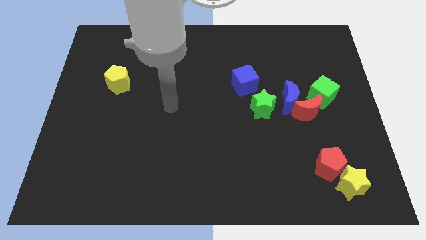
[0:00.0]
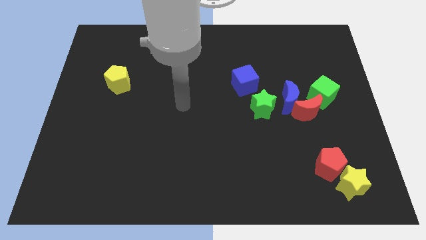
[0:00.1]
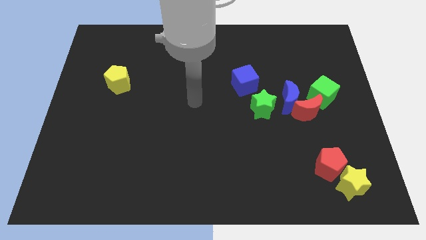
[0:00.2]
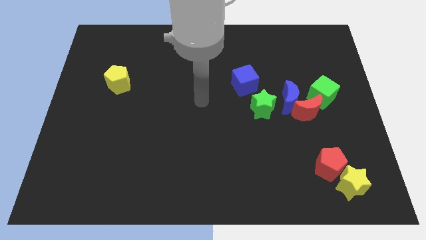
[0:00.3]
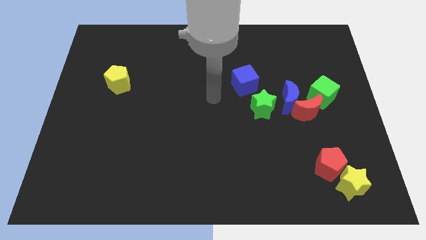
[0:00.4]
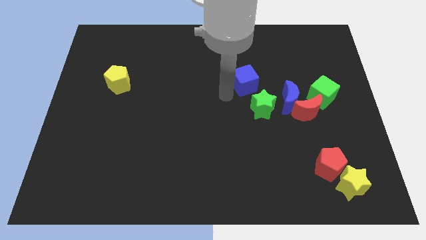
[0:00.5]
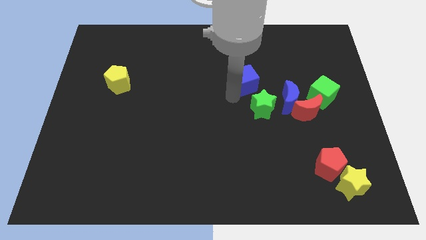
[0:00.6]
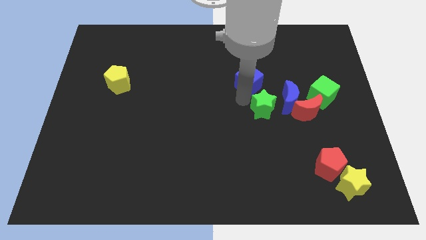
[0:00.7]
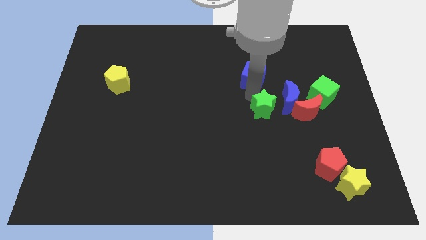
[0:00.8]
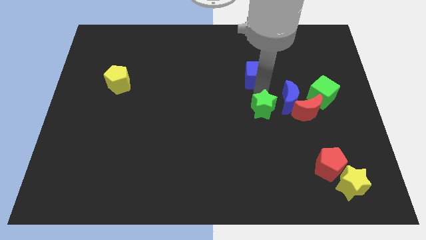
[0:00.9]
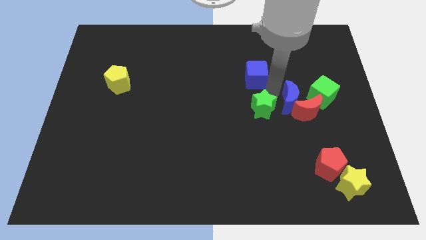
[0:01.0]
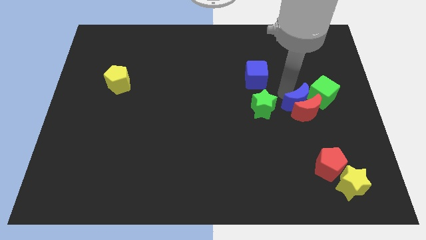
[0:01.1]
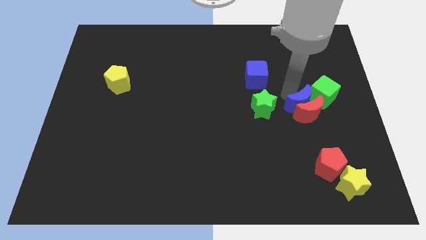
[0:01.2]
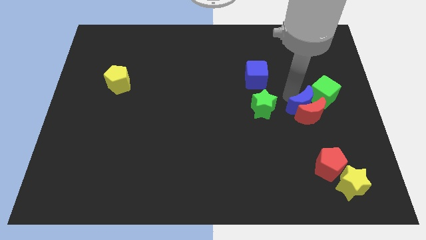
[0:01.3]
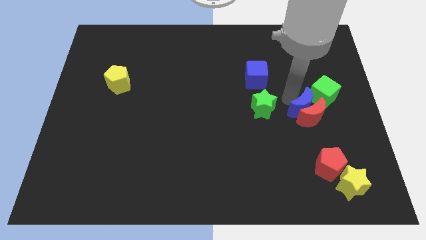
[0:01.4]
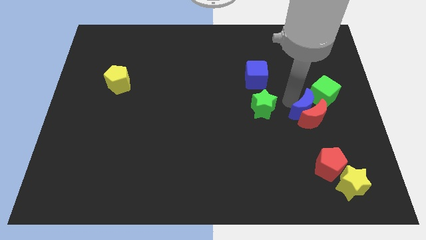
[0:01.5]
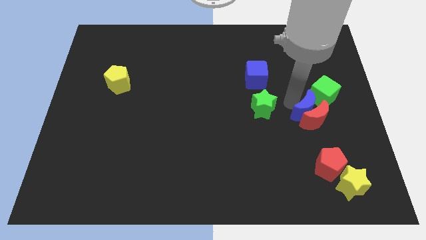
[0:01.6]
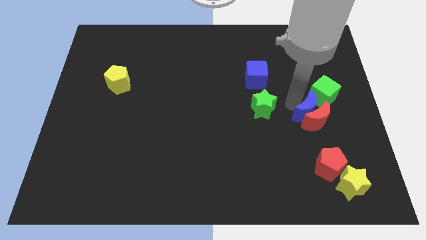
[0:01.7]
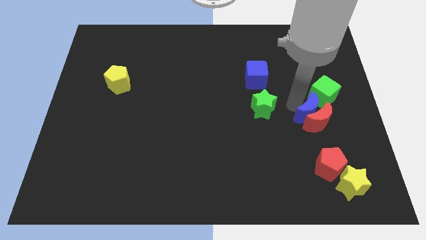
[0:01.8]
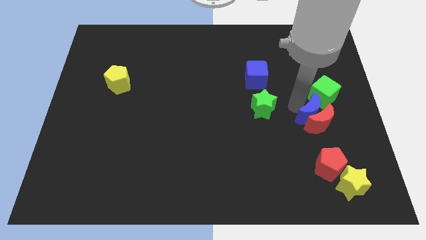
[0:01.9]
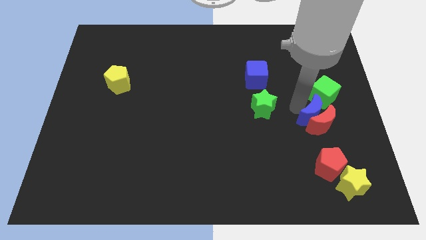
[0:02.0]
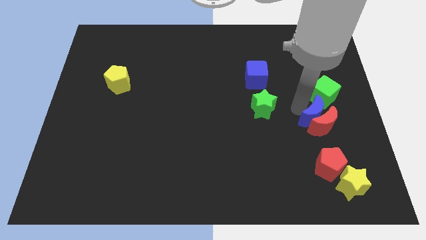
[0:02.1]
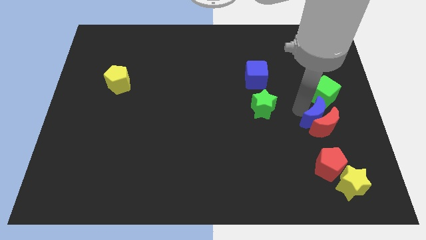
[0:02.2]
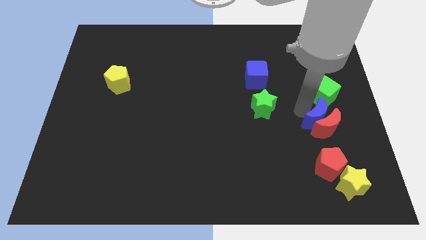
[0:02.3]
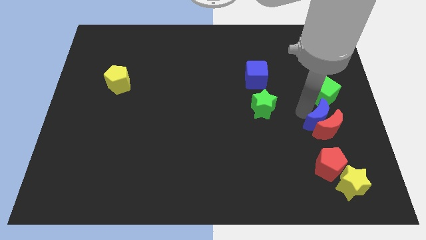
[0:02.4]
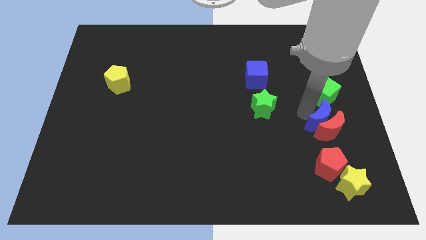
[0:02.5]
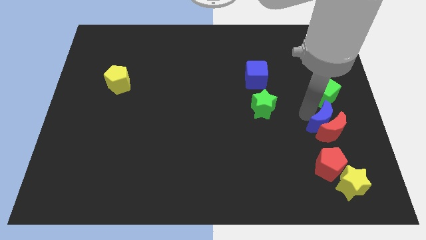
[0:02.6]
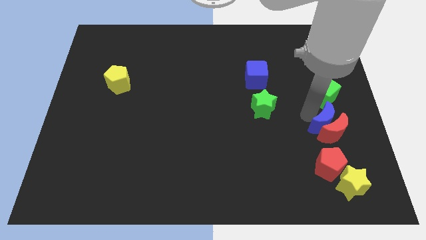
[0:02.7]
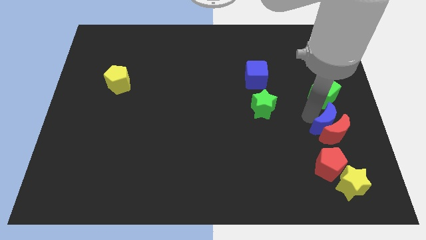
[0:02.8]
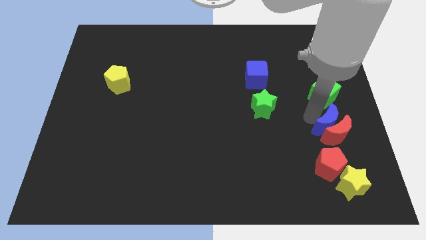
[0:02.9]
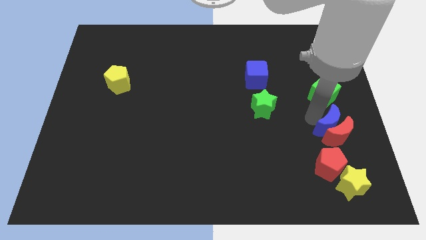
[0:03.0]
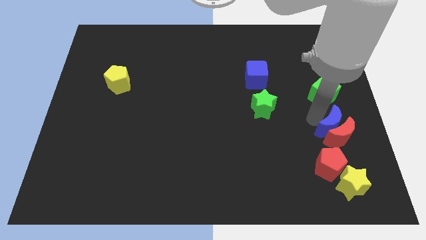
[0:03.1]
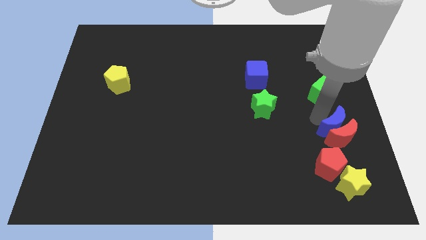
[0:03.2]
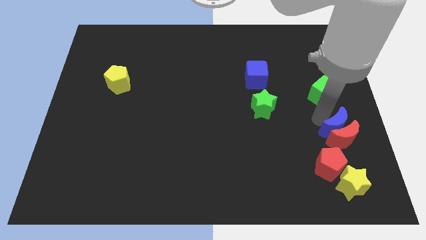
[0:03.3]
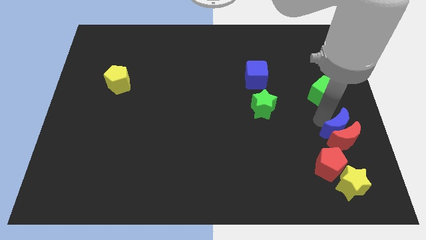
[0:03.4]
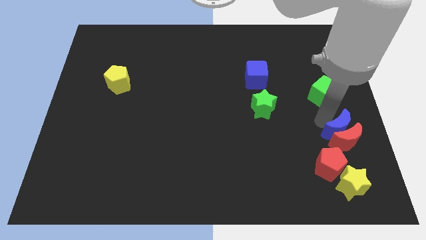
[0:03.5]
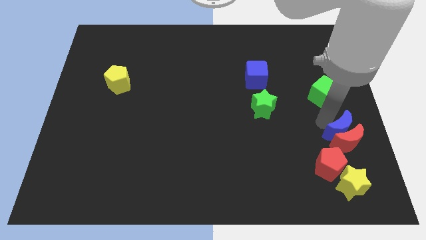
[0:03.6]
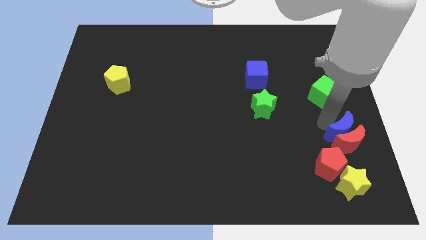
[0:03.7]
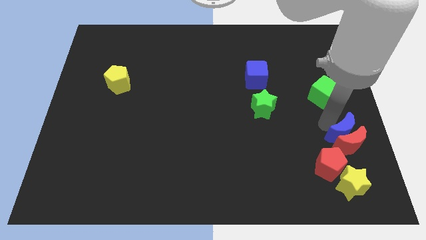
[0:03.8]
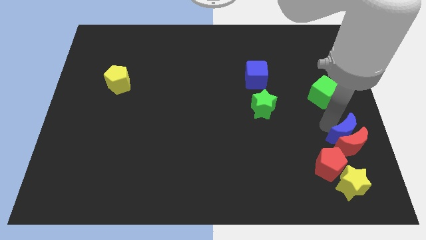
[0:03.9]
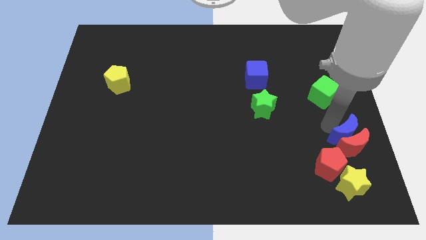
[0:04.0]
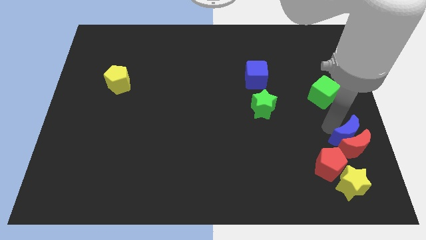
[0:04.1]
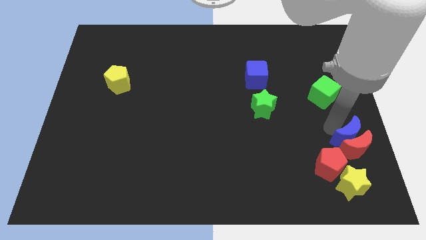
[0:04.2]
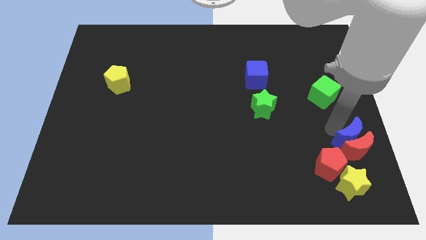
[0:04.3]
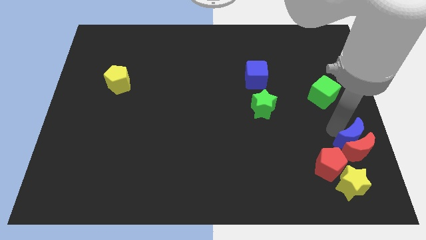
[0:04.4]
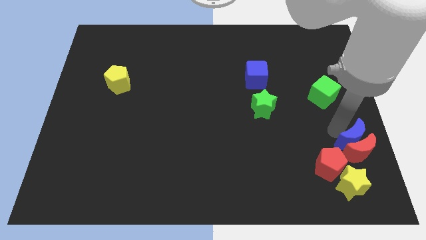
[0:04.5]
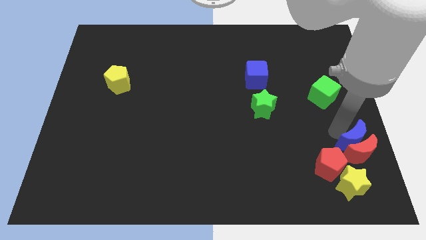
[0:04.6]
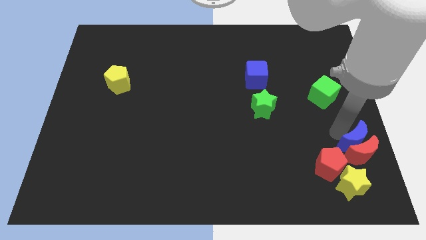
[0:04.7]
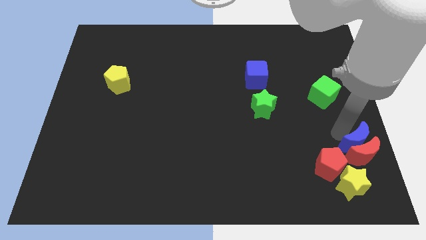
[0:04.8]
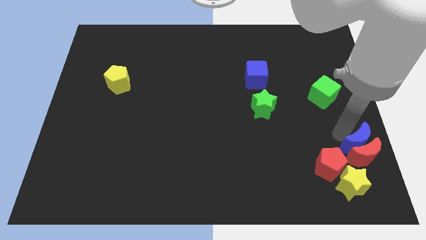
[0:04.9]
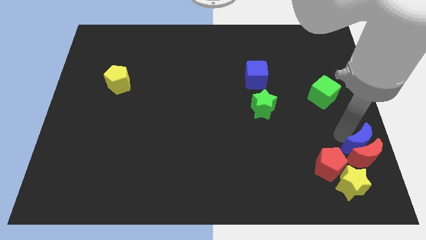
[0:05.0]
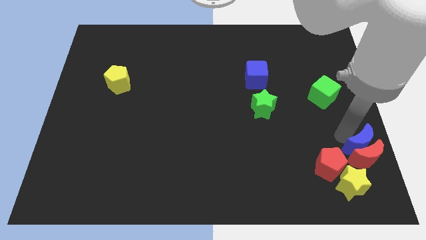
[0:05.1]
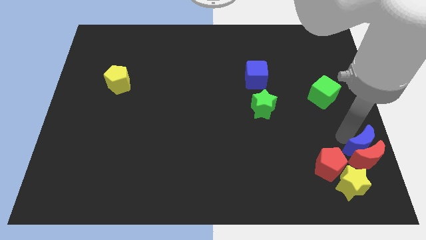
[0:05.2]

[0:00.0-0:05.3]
slide the red moon to the lower right corner

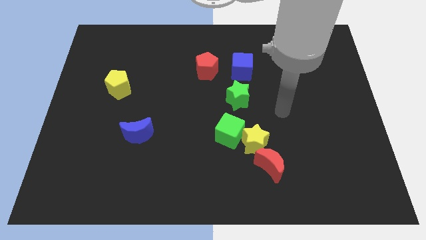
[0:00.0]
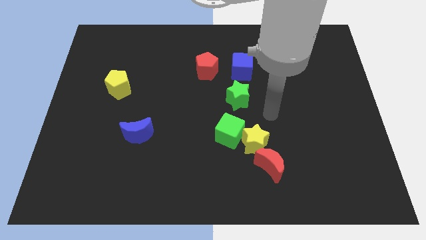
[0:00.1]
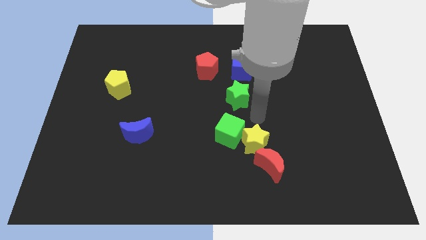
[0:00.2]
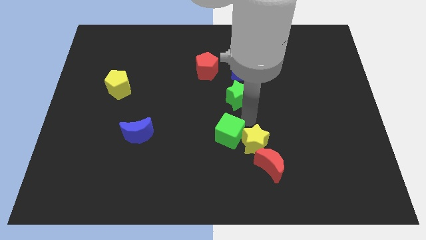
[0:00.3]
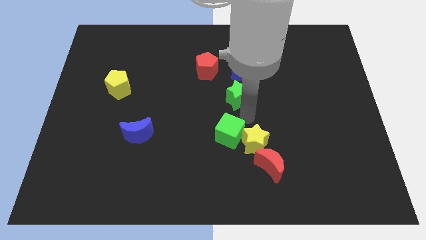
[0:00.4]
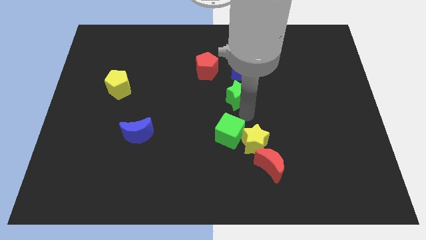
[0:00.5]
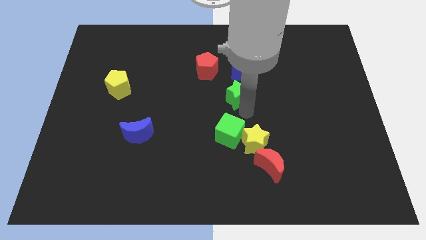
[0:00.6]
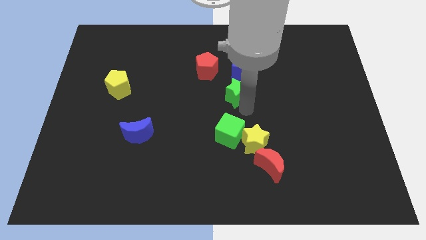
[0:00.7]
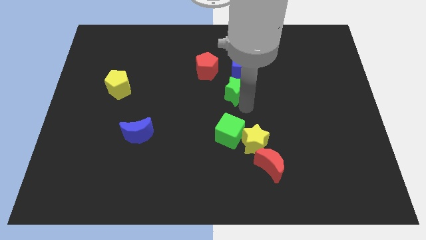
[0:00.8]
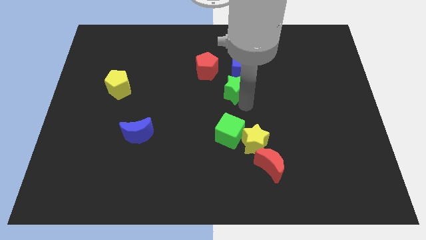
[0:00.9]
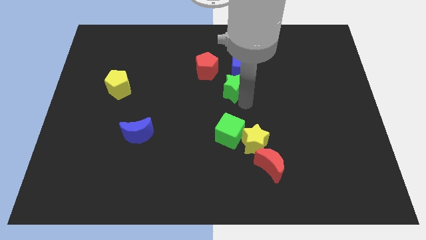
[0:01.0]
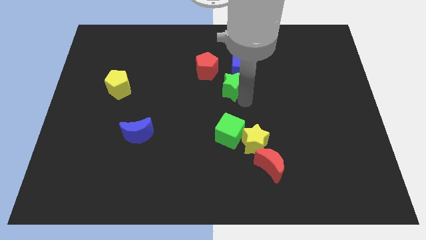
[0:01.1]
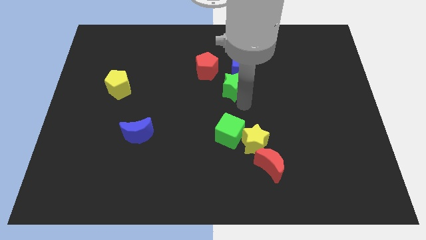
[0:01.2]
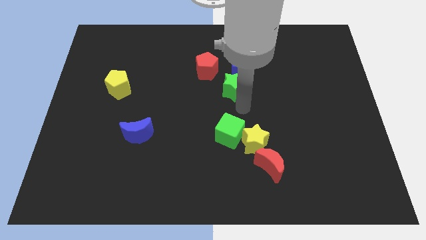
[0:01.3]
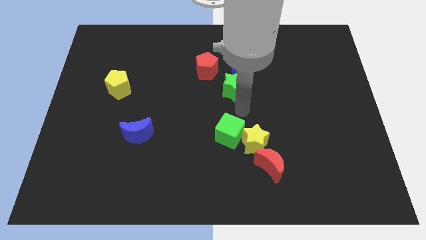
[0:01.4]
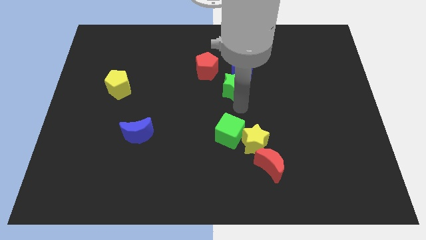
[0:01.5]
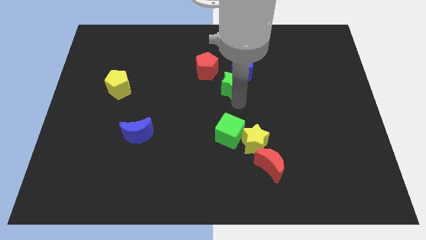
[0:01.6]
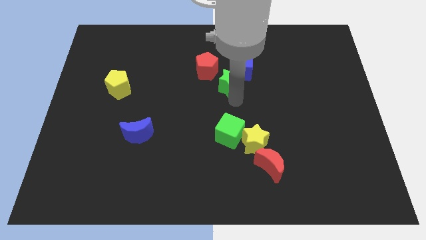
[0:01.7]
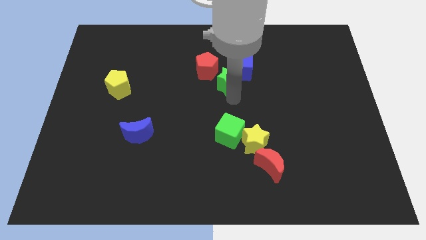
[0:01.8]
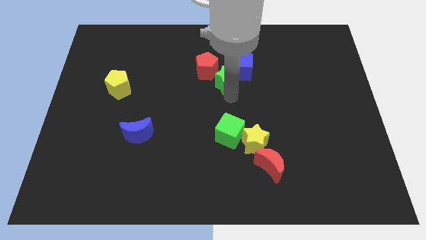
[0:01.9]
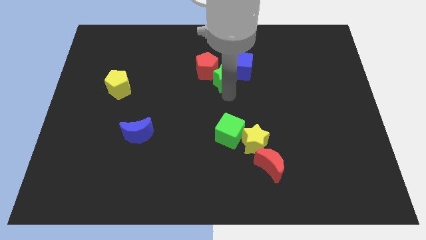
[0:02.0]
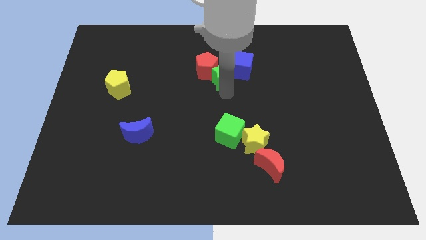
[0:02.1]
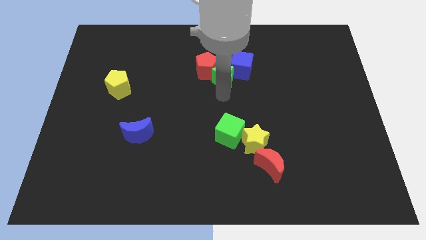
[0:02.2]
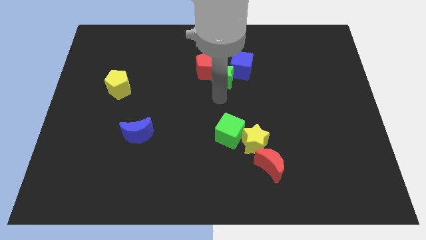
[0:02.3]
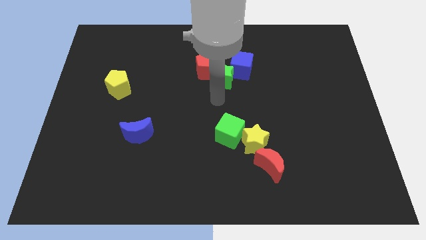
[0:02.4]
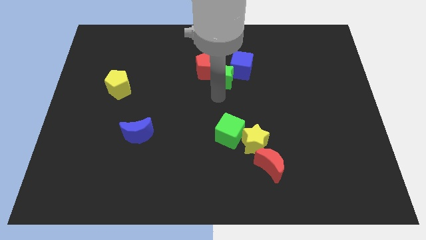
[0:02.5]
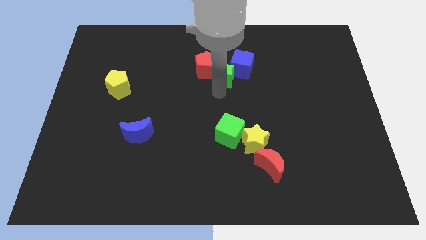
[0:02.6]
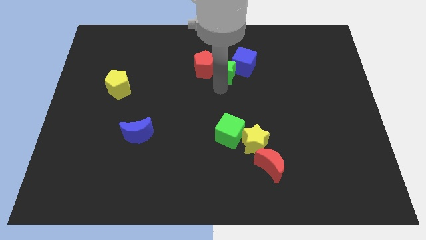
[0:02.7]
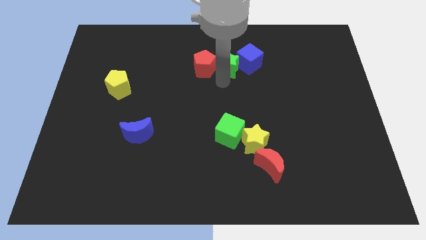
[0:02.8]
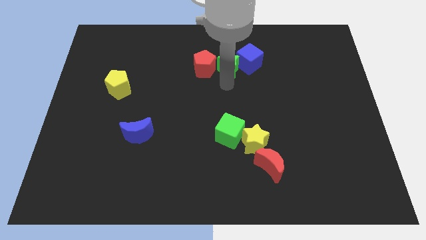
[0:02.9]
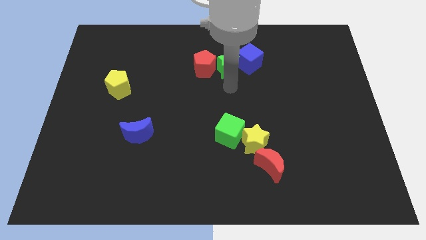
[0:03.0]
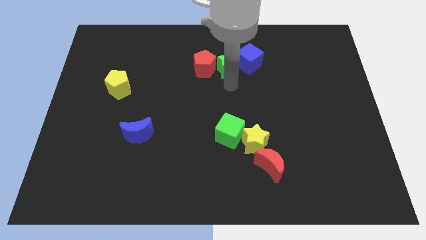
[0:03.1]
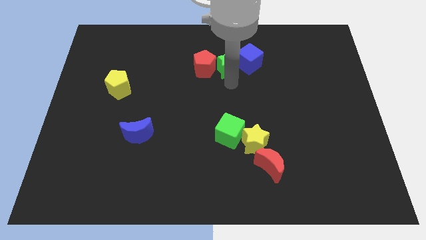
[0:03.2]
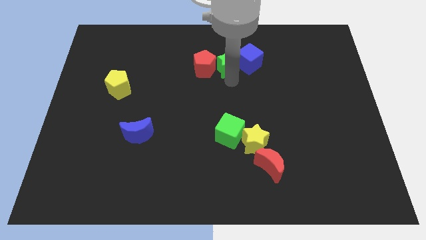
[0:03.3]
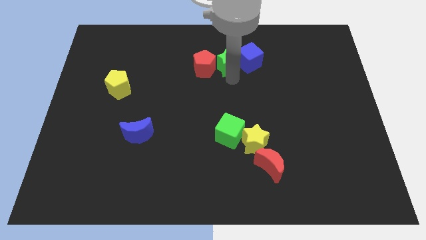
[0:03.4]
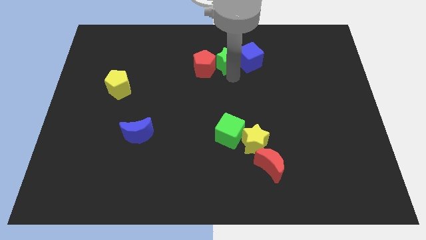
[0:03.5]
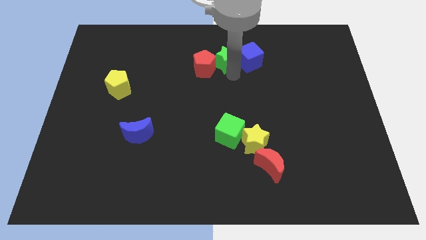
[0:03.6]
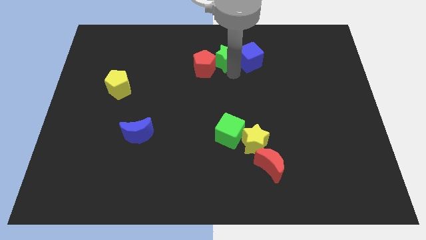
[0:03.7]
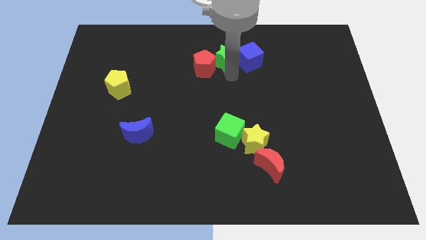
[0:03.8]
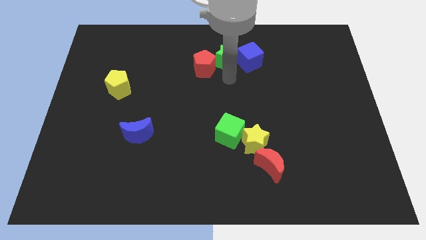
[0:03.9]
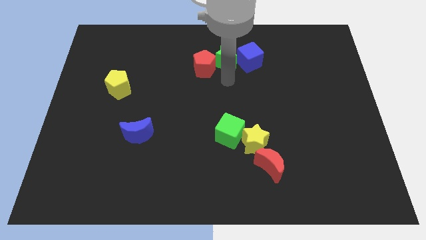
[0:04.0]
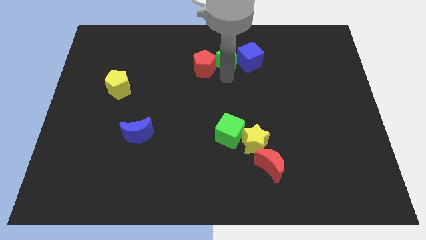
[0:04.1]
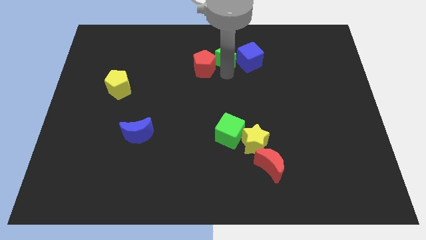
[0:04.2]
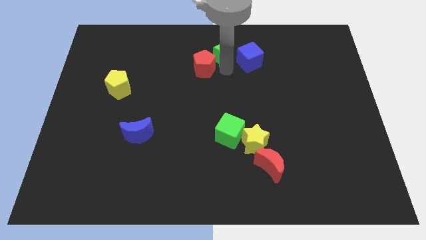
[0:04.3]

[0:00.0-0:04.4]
slide the green star to the towards your base
